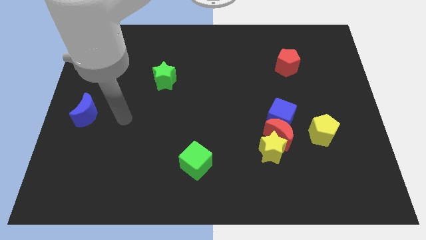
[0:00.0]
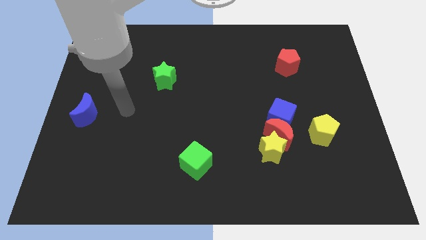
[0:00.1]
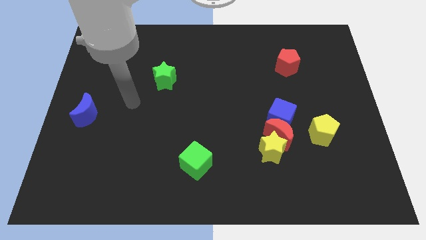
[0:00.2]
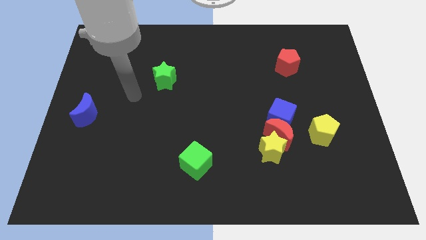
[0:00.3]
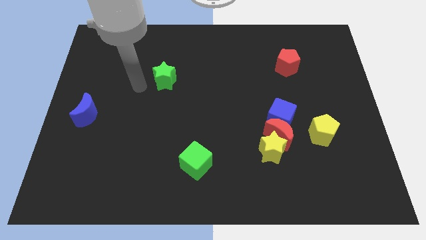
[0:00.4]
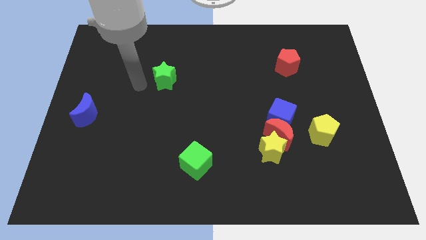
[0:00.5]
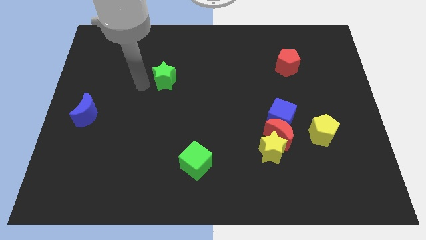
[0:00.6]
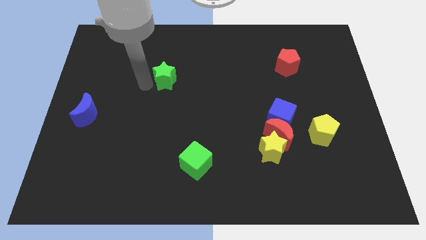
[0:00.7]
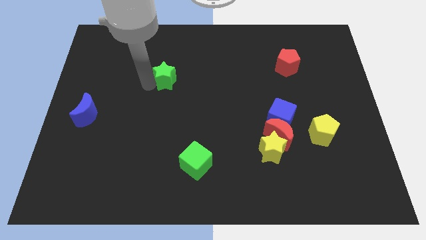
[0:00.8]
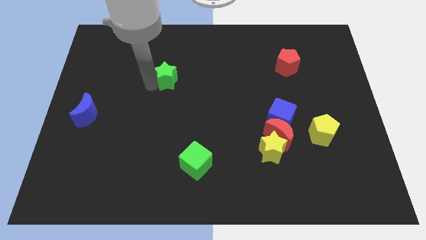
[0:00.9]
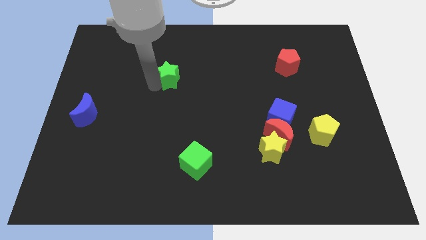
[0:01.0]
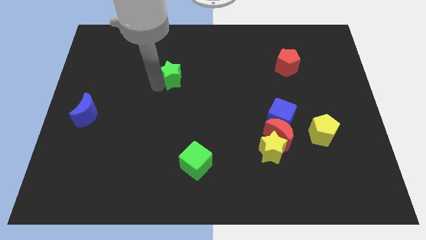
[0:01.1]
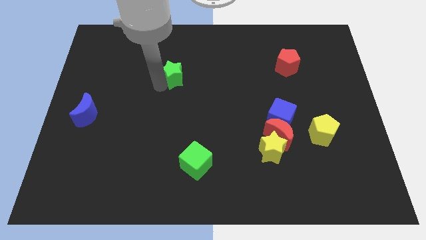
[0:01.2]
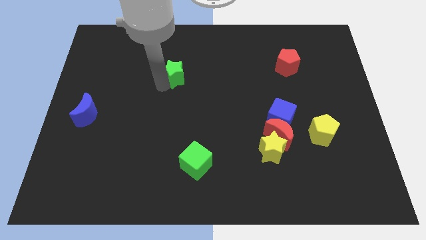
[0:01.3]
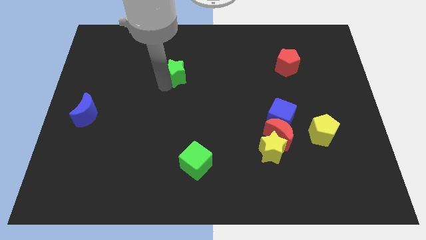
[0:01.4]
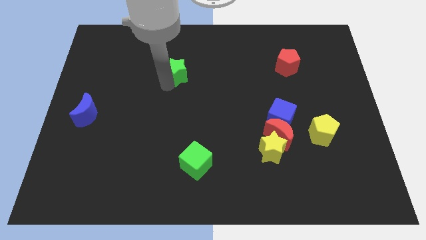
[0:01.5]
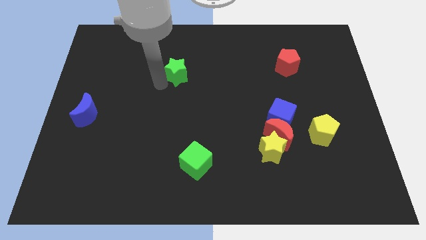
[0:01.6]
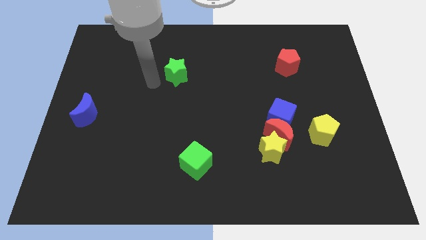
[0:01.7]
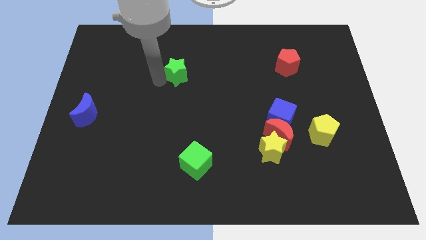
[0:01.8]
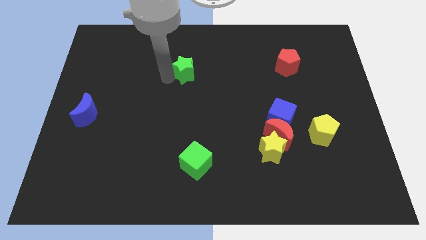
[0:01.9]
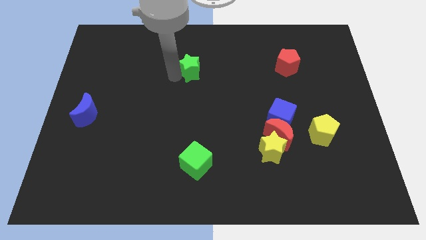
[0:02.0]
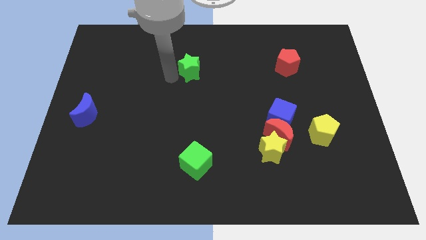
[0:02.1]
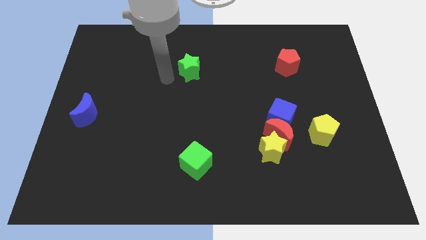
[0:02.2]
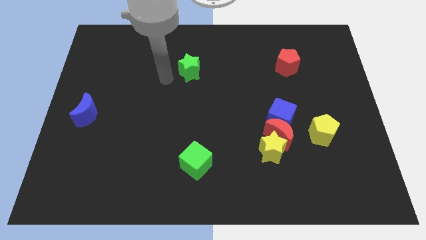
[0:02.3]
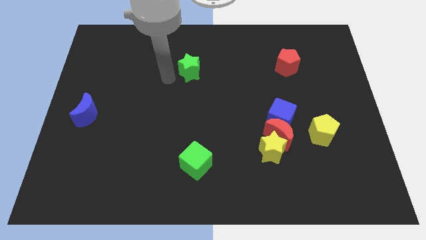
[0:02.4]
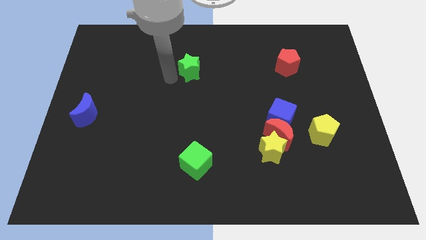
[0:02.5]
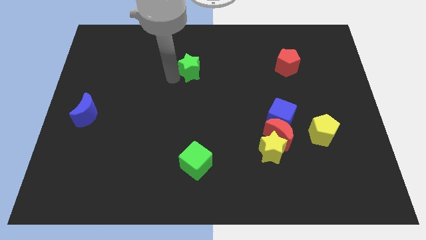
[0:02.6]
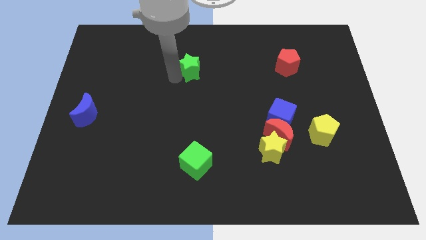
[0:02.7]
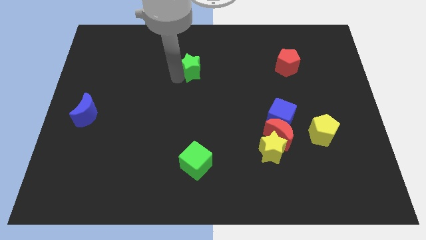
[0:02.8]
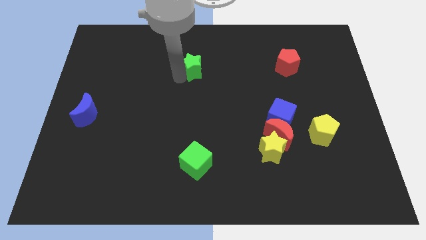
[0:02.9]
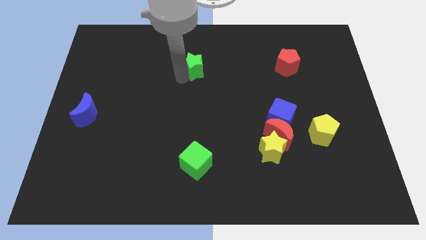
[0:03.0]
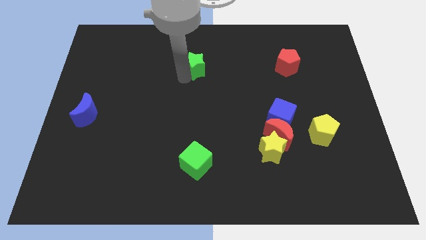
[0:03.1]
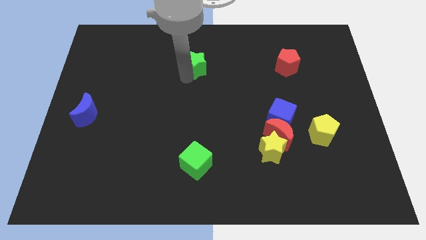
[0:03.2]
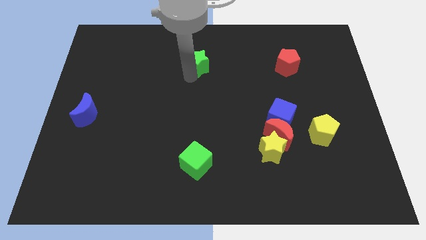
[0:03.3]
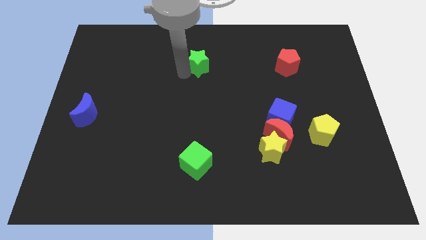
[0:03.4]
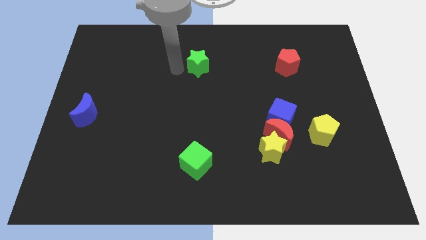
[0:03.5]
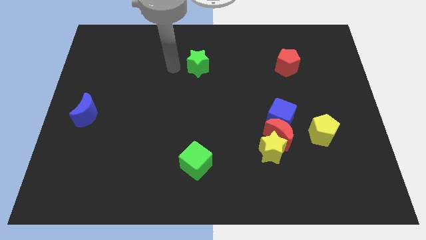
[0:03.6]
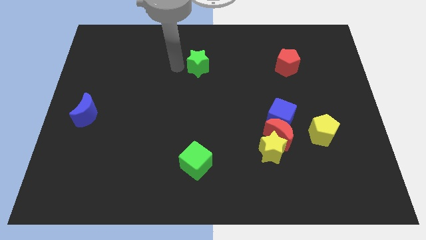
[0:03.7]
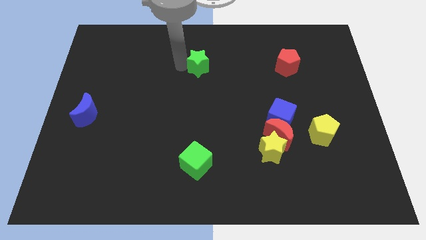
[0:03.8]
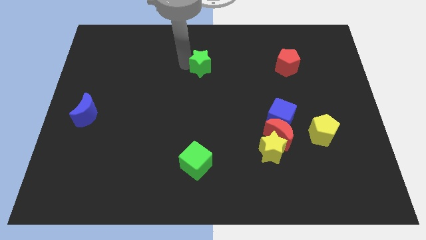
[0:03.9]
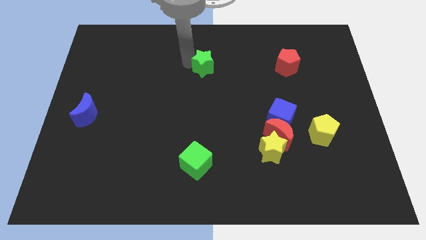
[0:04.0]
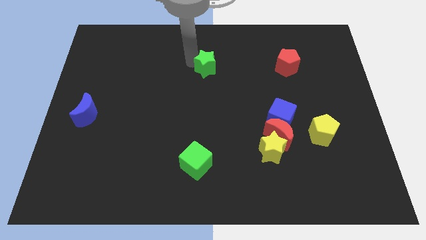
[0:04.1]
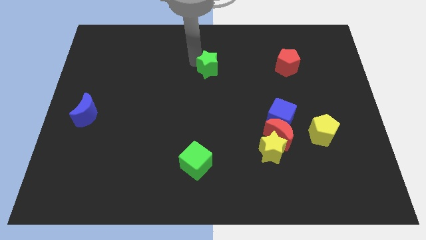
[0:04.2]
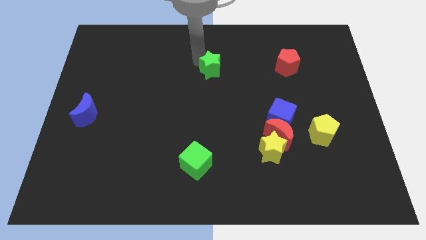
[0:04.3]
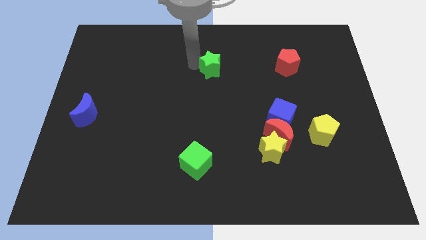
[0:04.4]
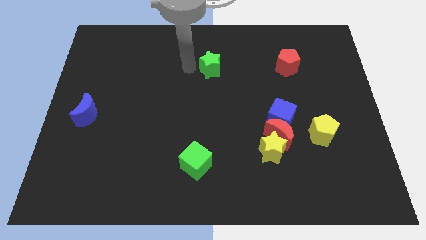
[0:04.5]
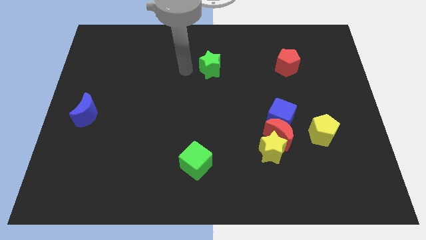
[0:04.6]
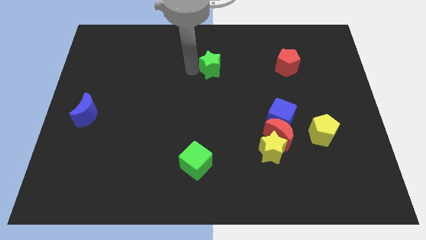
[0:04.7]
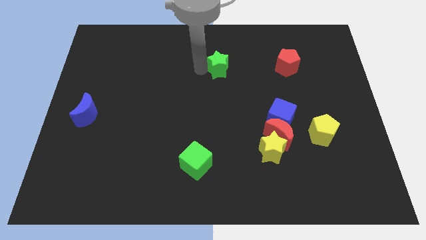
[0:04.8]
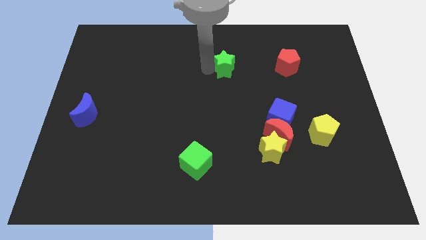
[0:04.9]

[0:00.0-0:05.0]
push the green star to the left of the red pentagon

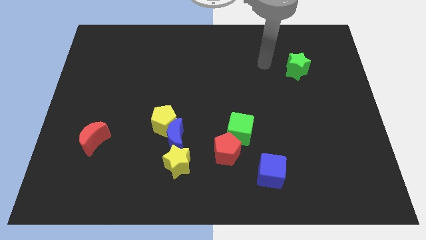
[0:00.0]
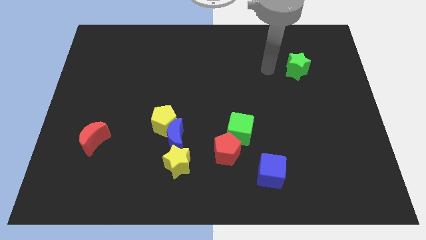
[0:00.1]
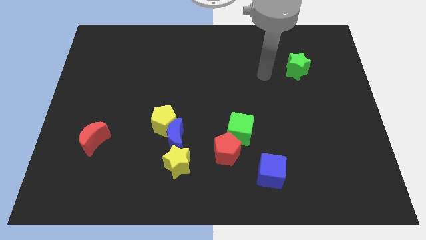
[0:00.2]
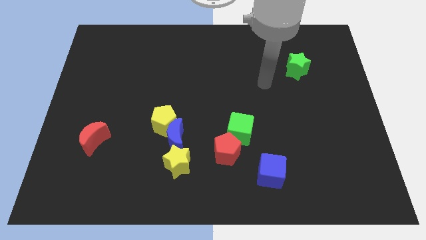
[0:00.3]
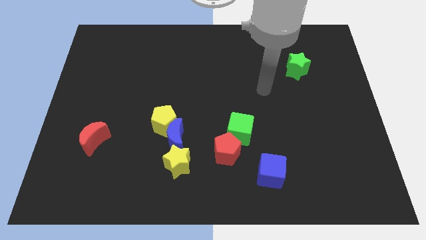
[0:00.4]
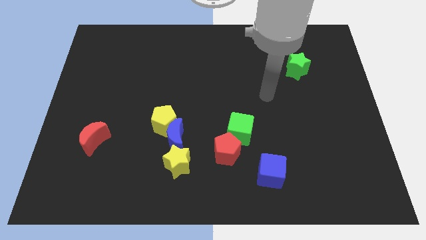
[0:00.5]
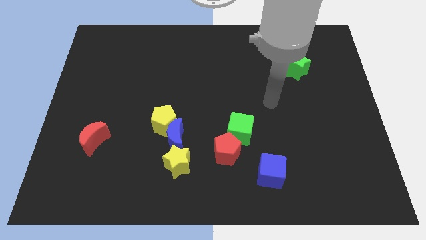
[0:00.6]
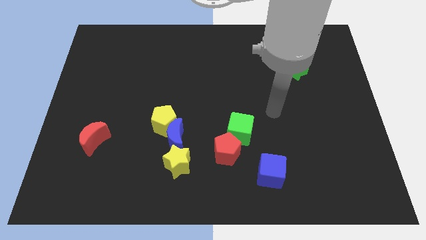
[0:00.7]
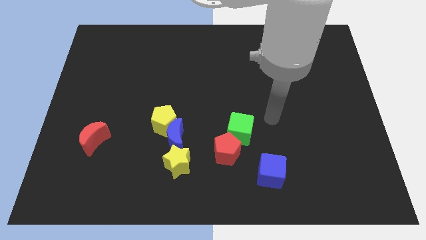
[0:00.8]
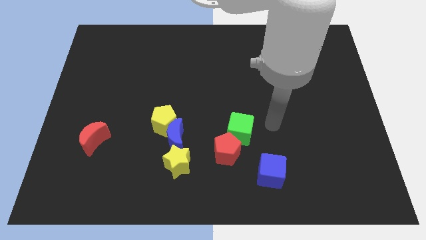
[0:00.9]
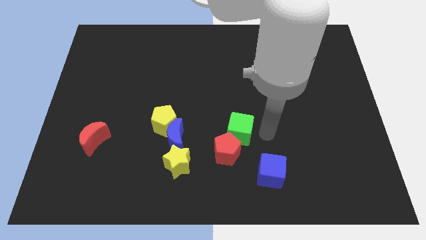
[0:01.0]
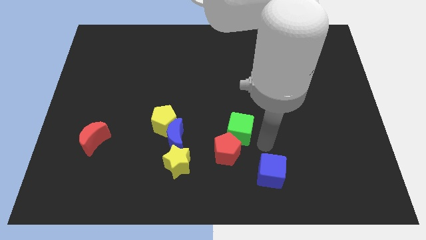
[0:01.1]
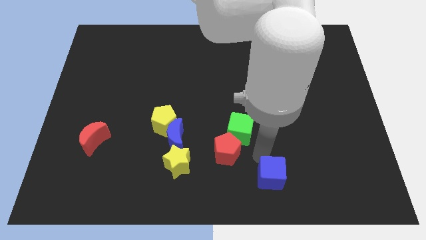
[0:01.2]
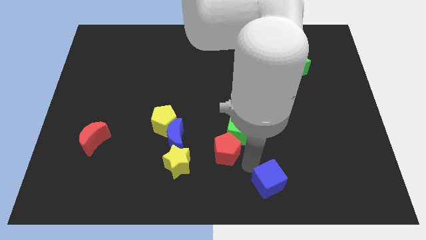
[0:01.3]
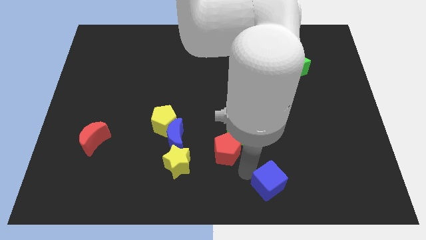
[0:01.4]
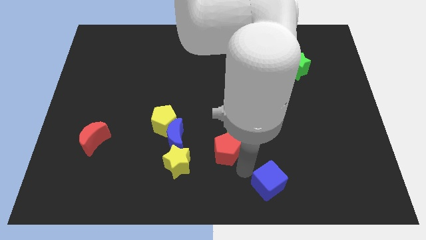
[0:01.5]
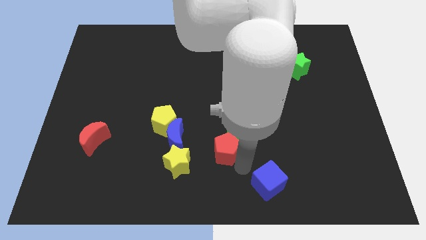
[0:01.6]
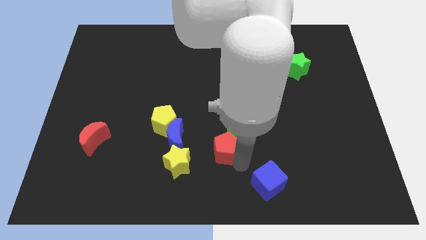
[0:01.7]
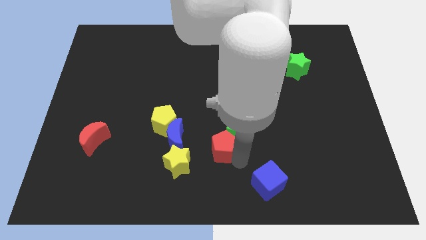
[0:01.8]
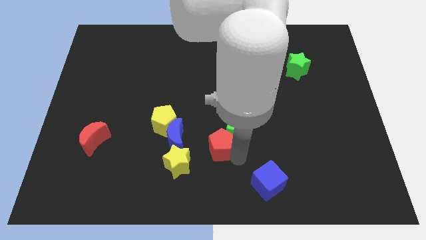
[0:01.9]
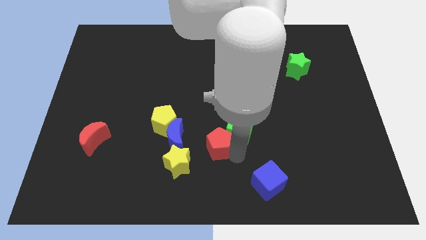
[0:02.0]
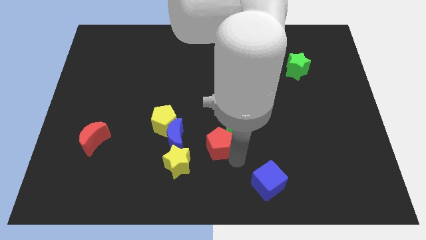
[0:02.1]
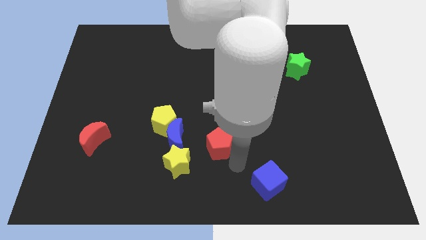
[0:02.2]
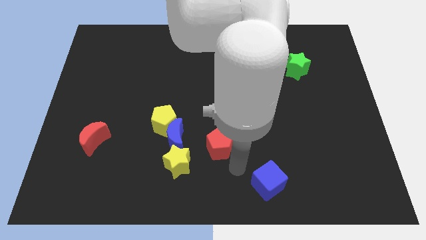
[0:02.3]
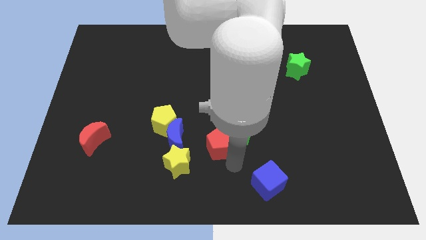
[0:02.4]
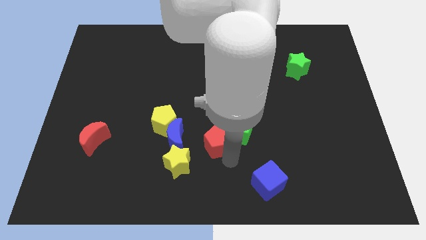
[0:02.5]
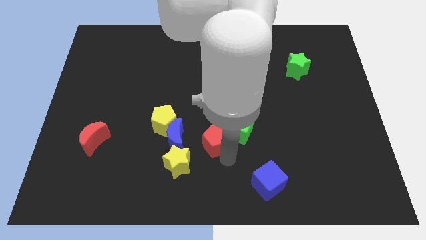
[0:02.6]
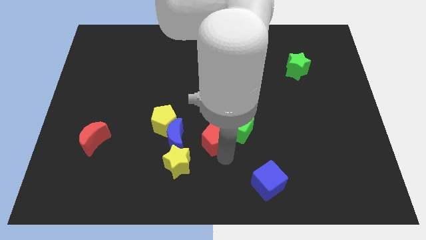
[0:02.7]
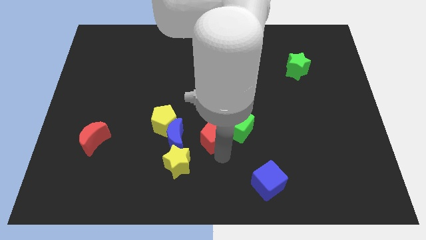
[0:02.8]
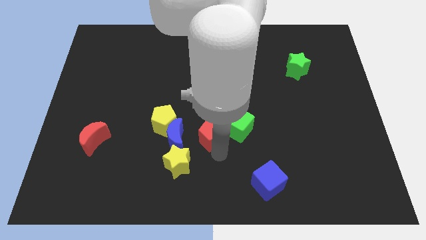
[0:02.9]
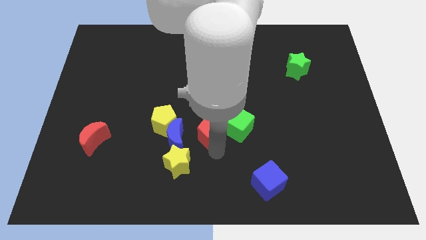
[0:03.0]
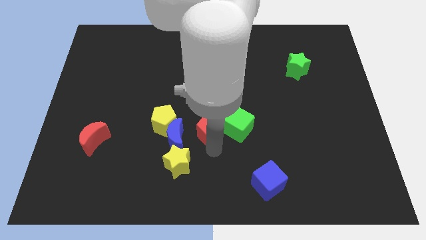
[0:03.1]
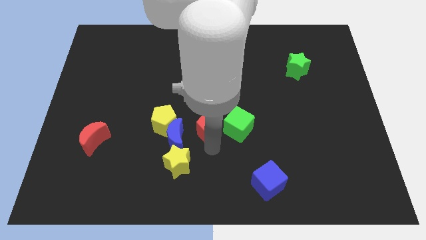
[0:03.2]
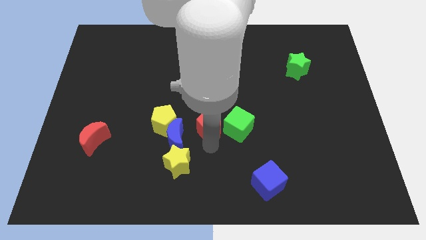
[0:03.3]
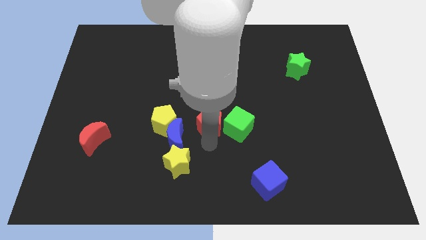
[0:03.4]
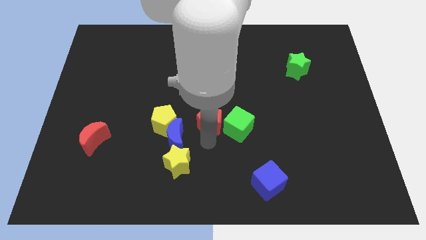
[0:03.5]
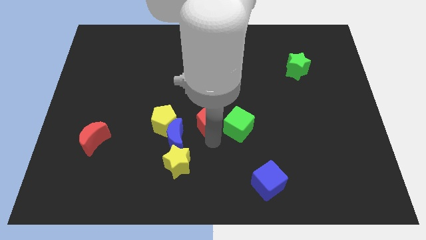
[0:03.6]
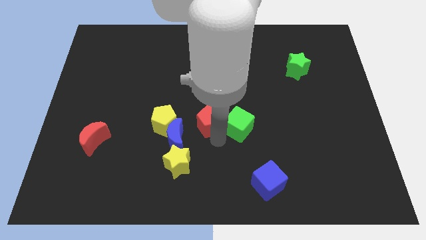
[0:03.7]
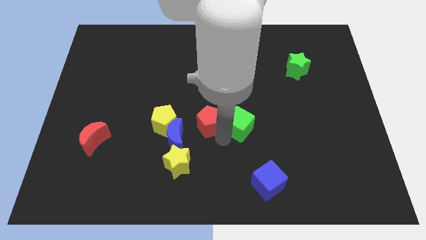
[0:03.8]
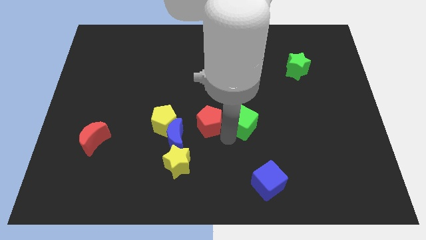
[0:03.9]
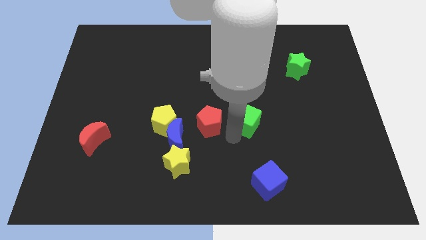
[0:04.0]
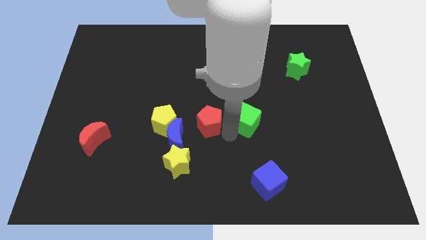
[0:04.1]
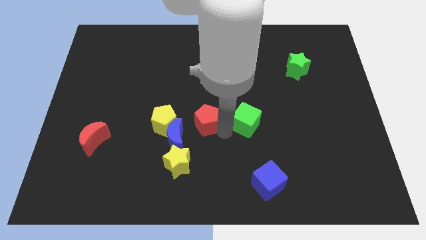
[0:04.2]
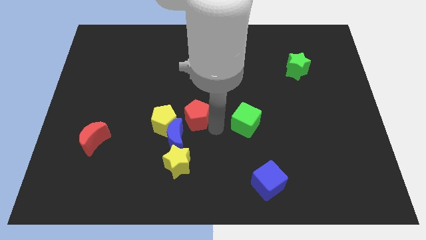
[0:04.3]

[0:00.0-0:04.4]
put the red pentagon to the top of the blue moon
